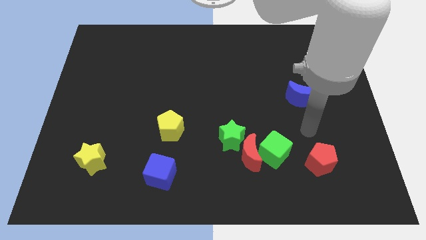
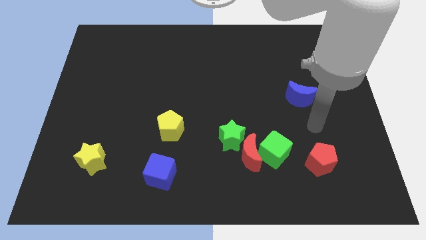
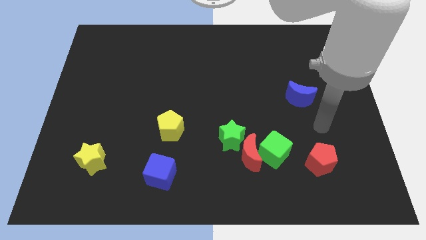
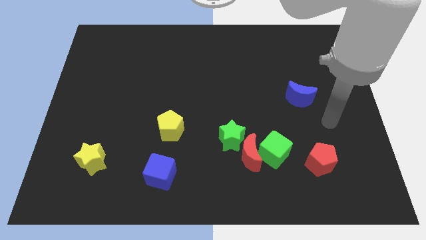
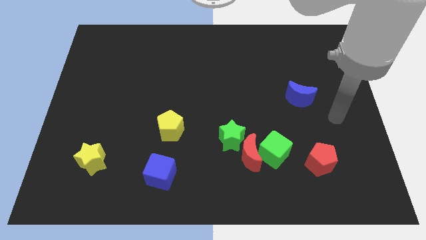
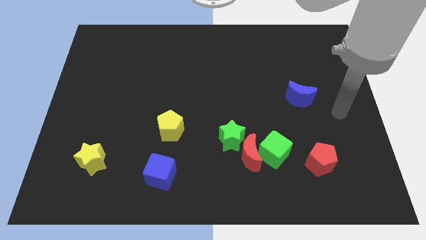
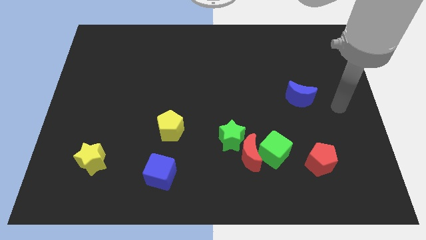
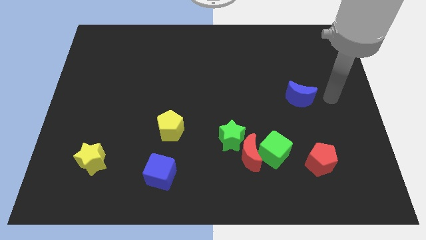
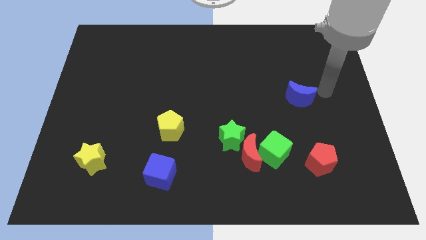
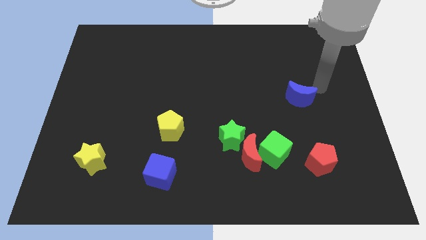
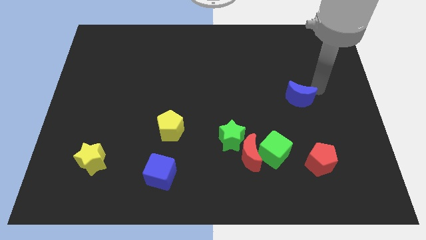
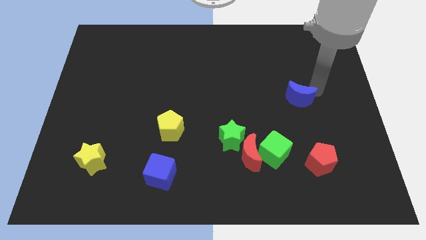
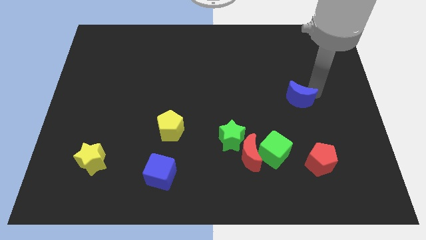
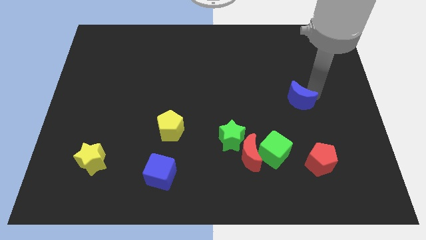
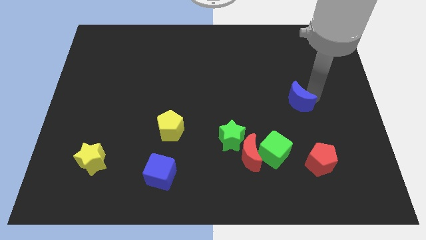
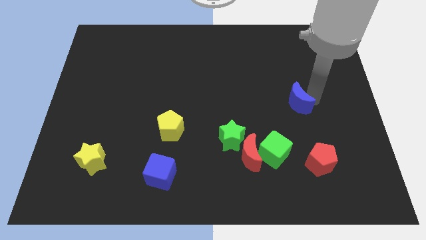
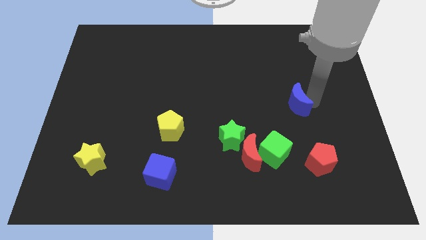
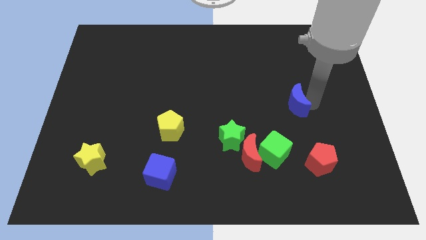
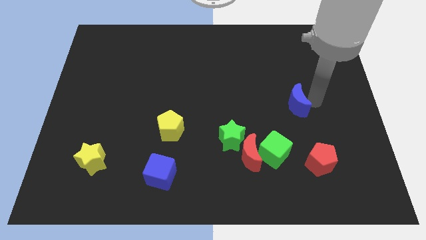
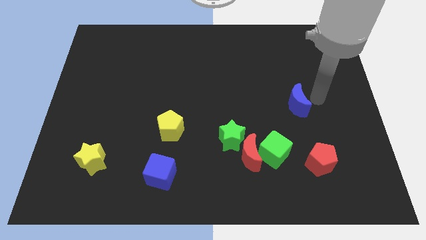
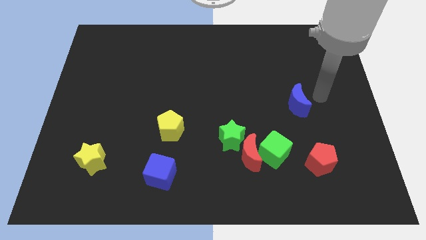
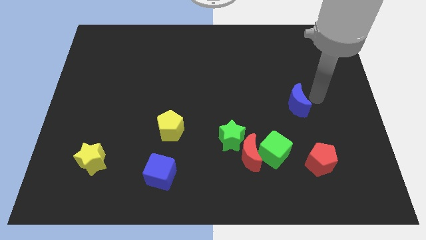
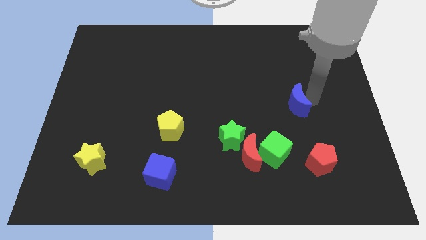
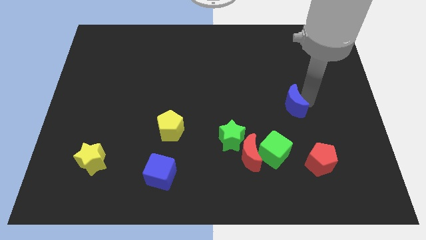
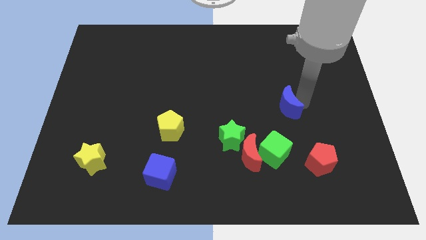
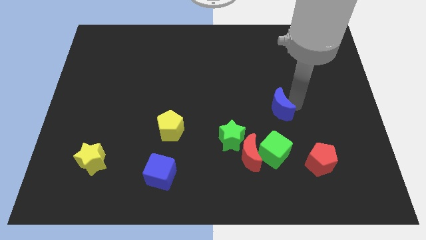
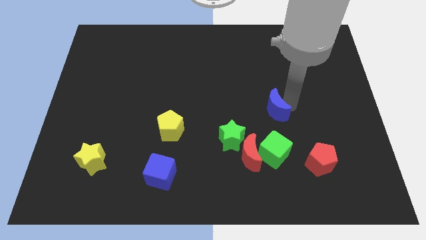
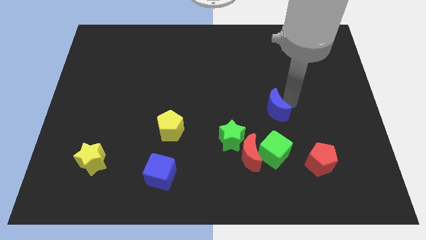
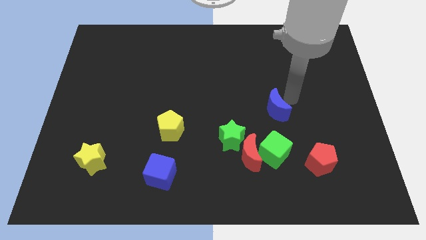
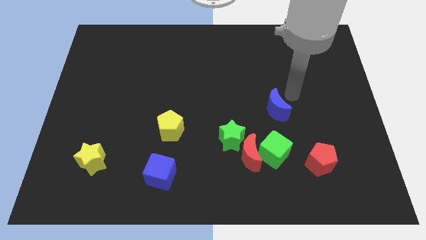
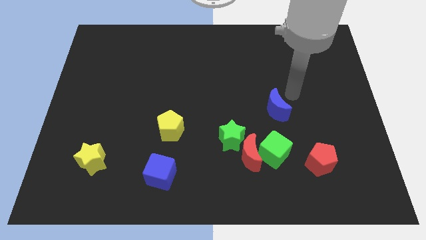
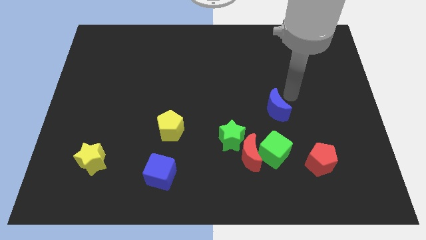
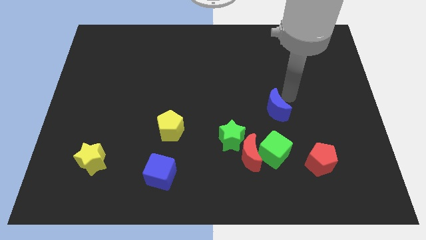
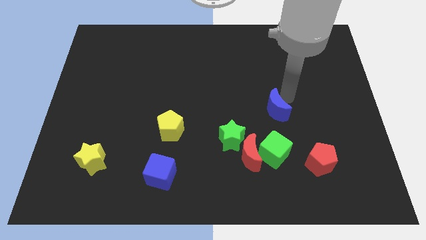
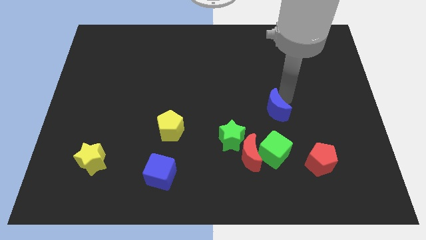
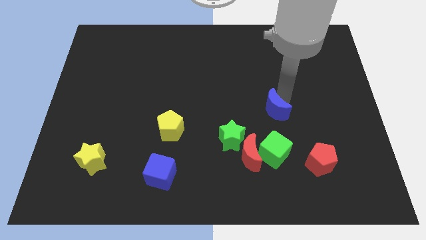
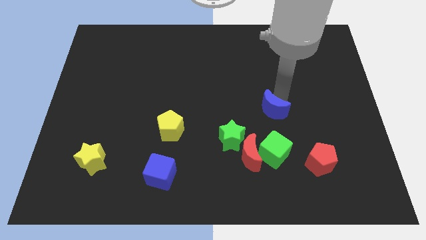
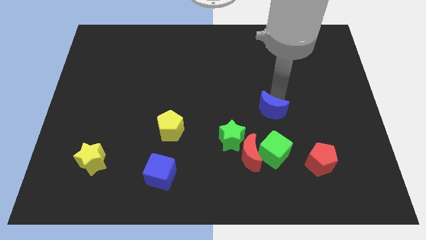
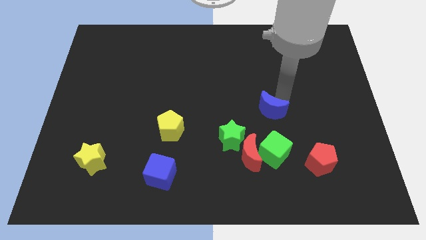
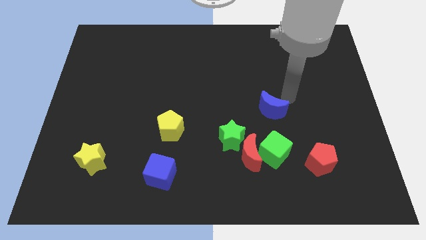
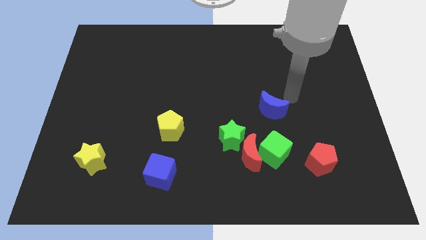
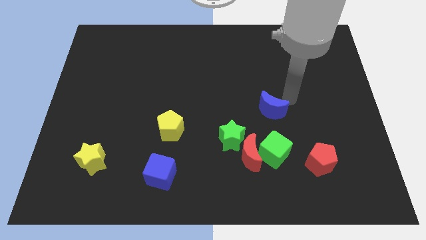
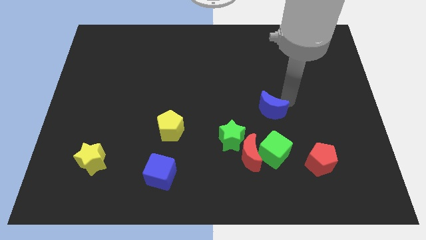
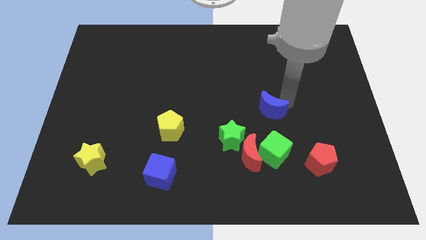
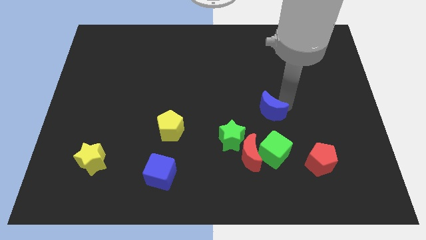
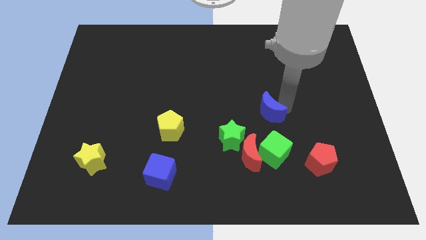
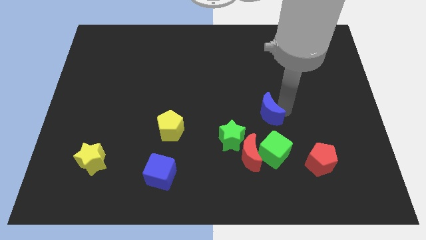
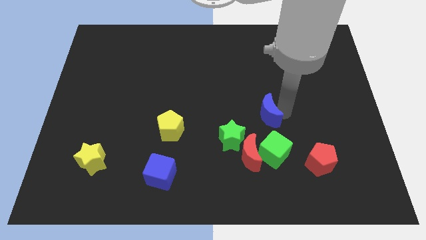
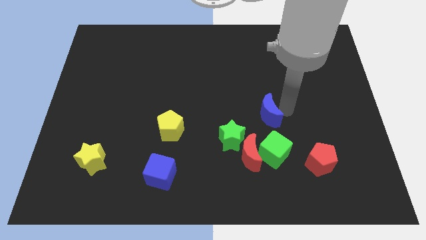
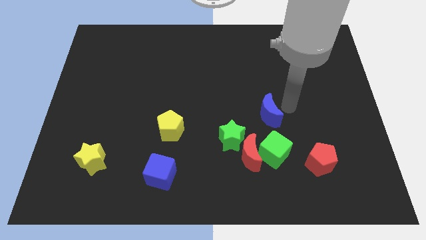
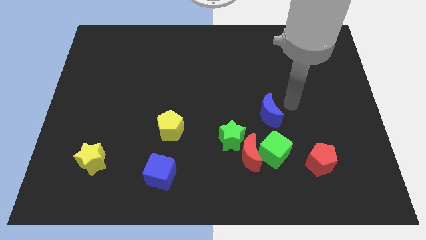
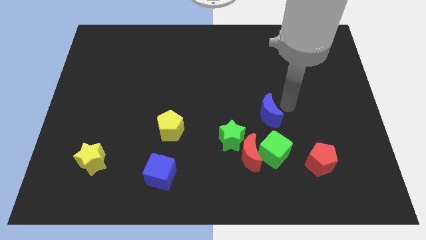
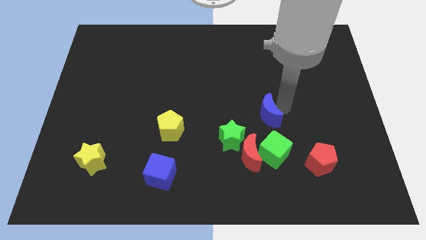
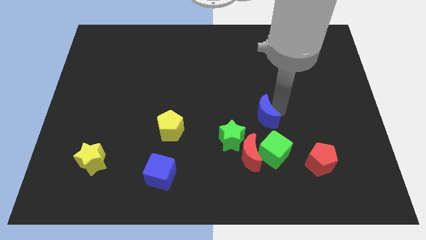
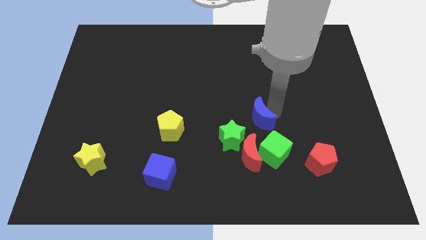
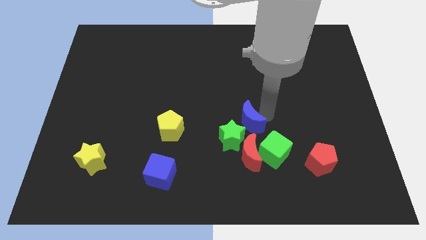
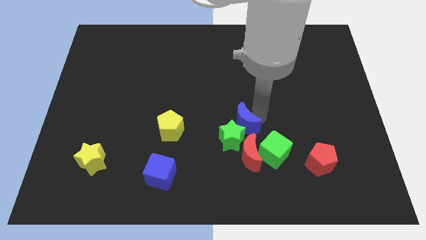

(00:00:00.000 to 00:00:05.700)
push the blue moon to the green star
